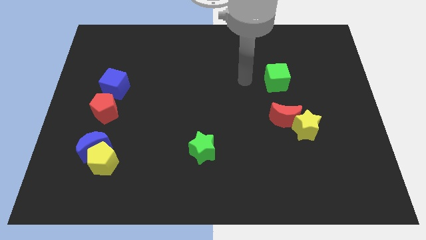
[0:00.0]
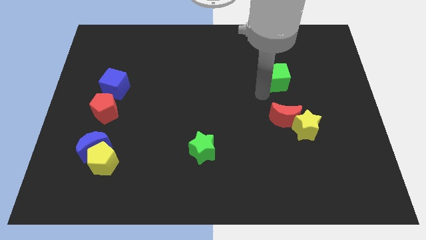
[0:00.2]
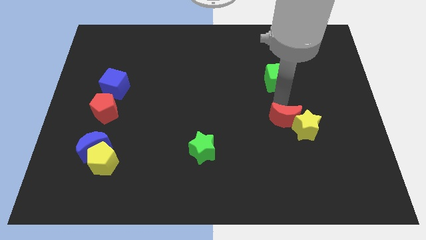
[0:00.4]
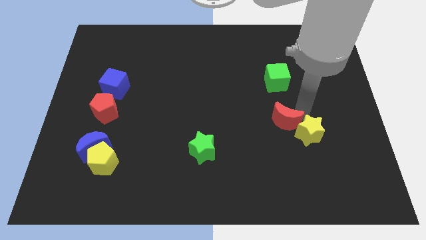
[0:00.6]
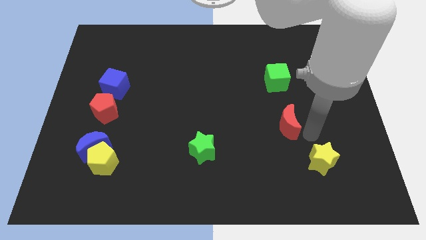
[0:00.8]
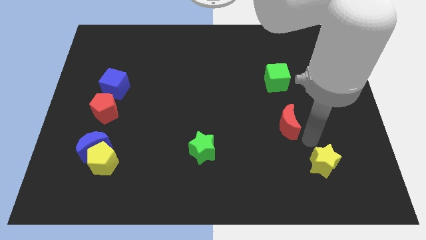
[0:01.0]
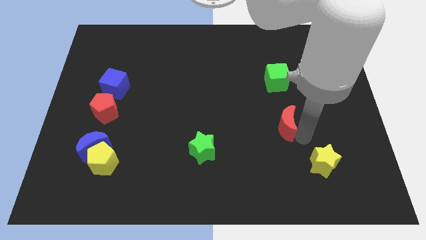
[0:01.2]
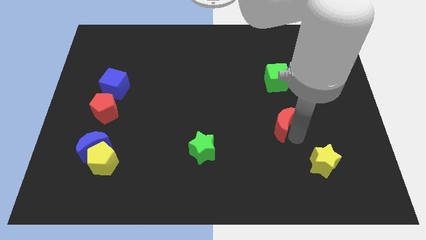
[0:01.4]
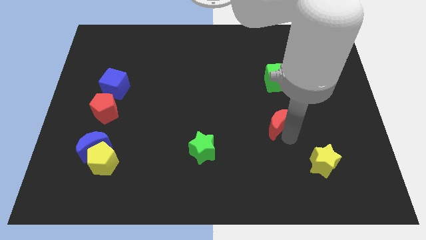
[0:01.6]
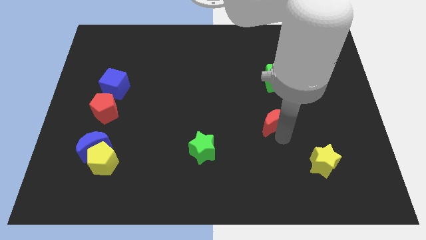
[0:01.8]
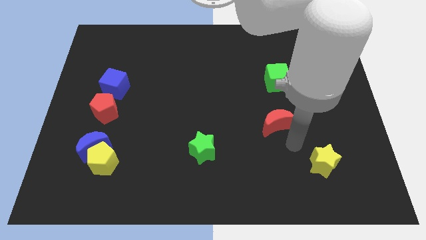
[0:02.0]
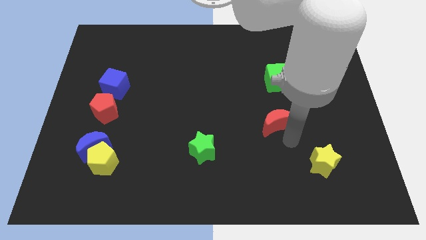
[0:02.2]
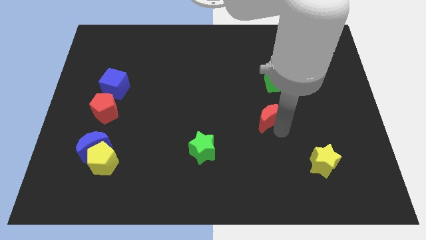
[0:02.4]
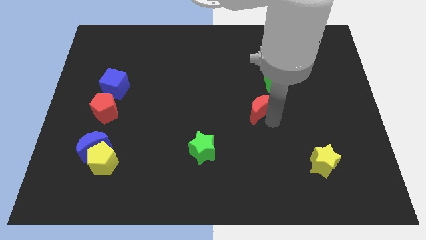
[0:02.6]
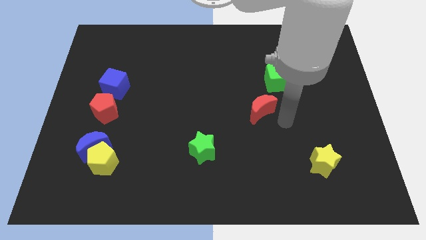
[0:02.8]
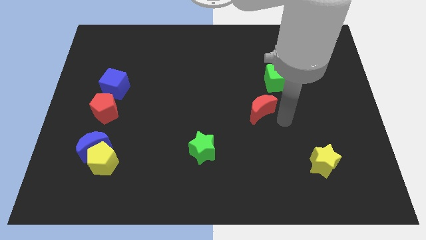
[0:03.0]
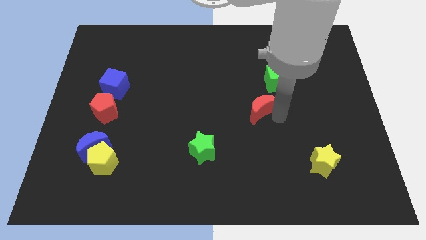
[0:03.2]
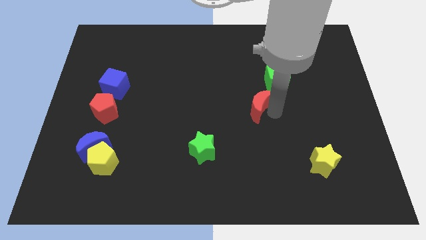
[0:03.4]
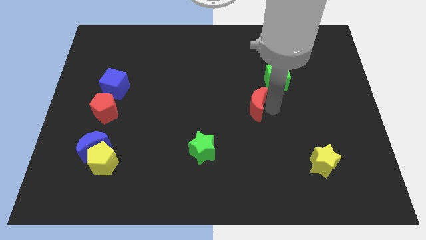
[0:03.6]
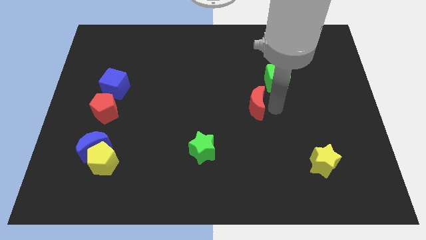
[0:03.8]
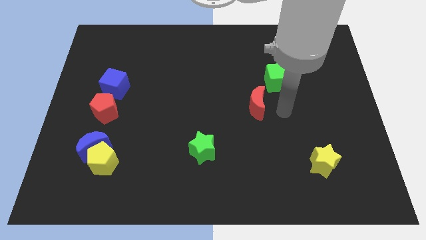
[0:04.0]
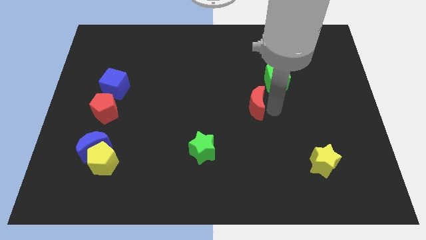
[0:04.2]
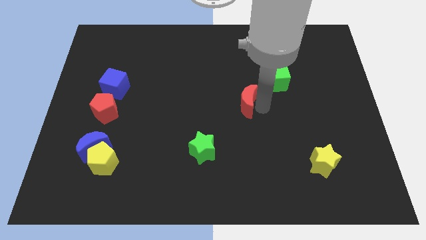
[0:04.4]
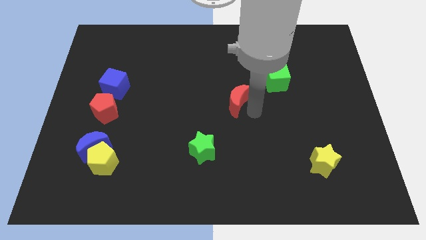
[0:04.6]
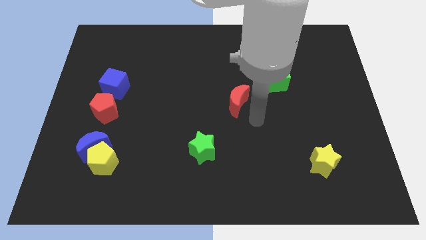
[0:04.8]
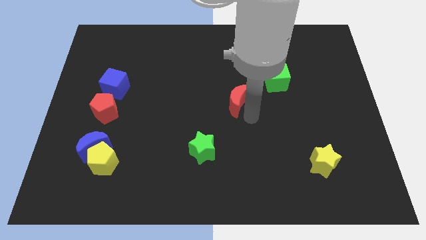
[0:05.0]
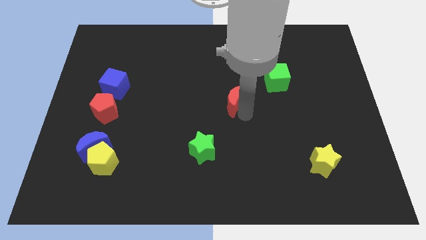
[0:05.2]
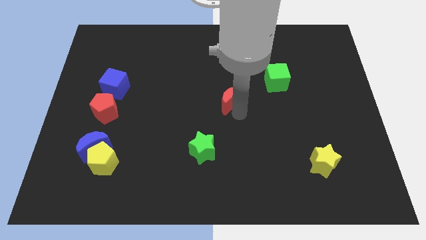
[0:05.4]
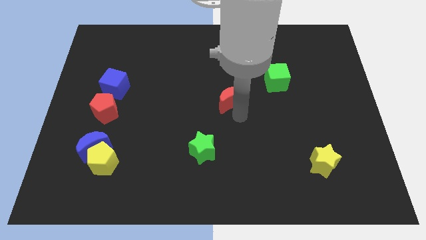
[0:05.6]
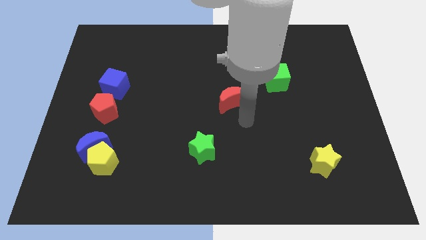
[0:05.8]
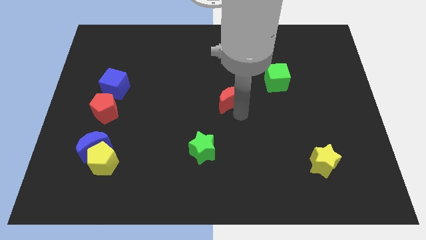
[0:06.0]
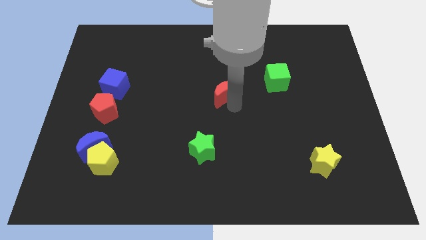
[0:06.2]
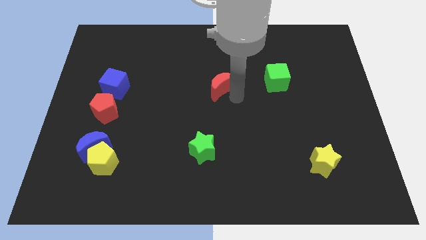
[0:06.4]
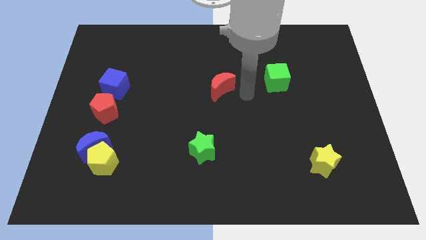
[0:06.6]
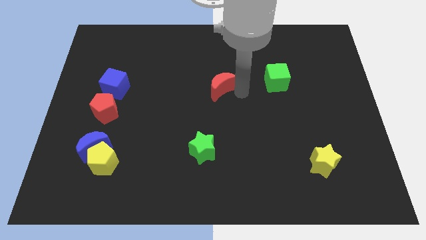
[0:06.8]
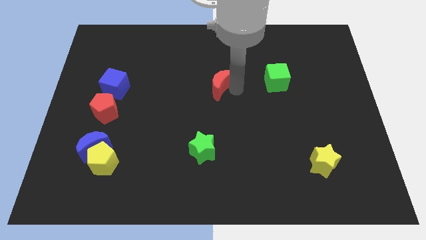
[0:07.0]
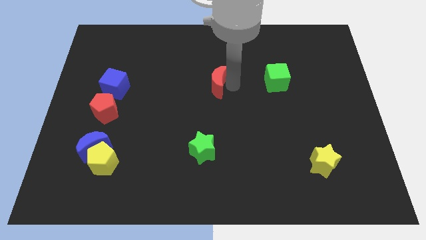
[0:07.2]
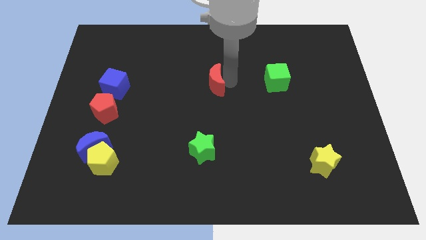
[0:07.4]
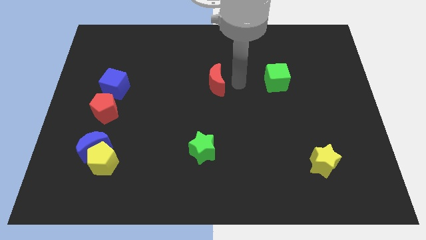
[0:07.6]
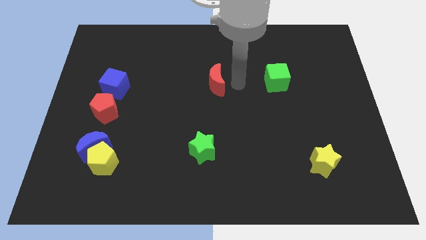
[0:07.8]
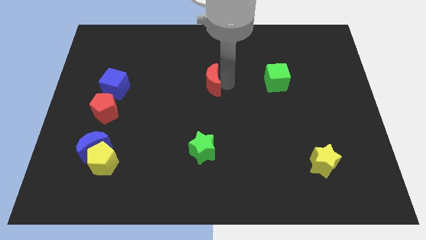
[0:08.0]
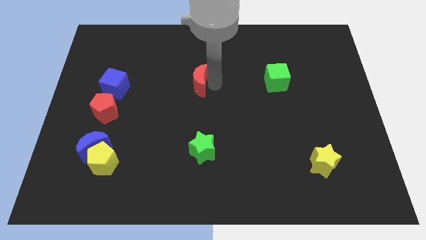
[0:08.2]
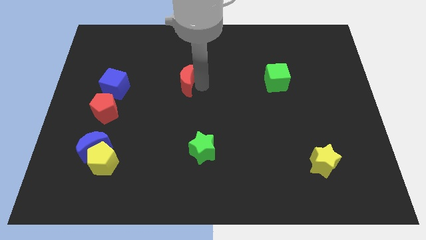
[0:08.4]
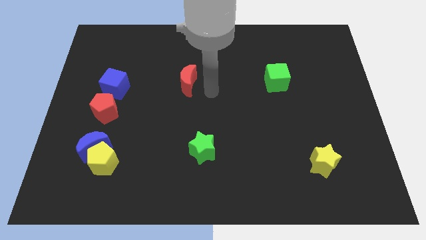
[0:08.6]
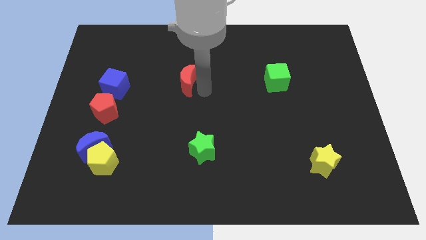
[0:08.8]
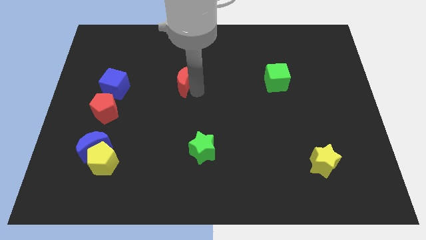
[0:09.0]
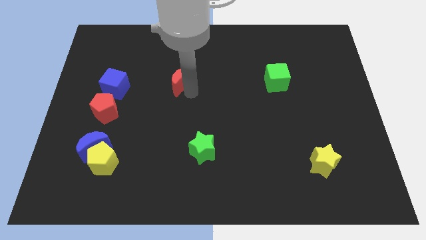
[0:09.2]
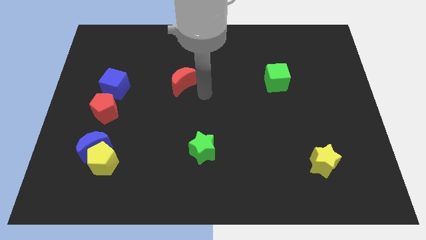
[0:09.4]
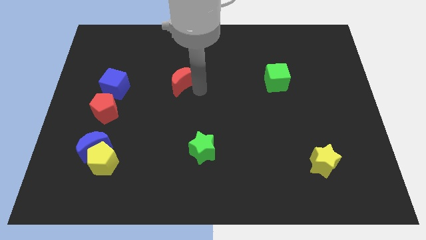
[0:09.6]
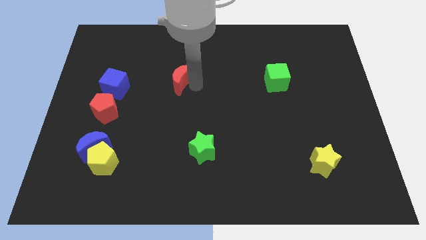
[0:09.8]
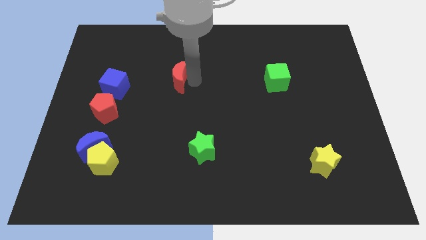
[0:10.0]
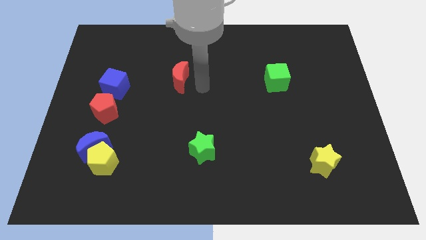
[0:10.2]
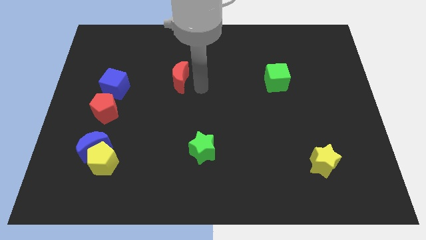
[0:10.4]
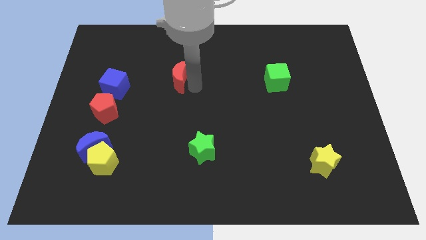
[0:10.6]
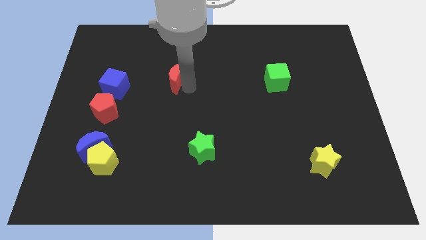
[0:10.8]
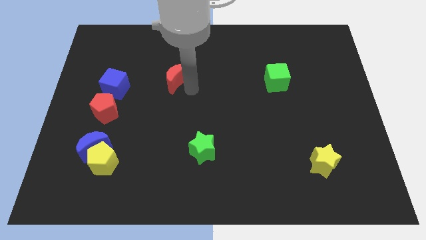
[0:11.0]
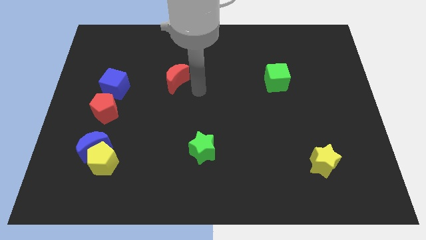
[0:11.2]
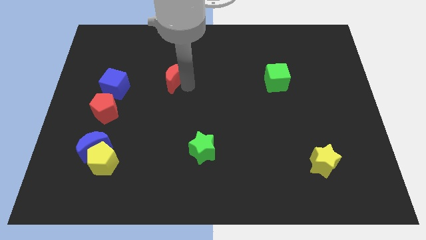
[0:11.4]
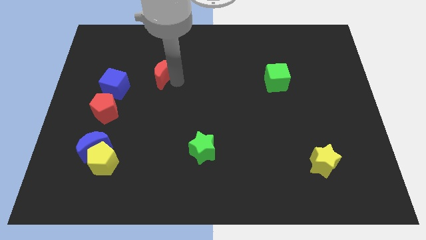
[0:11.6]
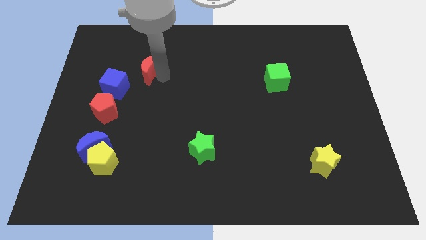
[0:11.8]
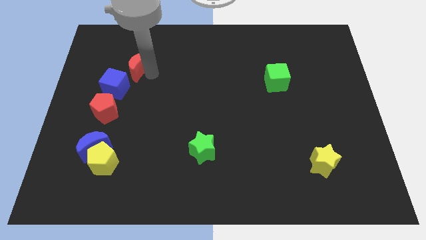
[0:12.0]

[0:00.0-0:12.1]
move the red moon above the blue cube

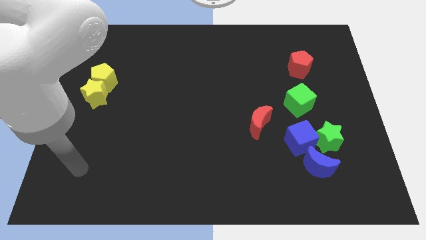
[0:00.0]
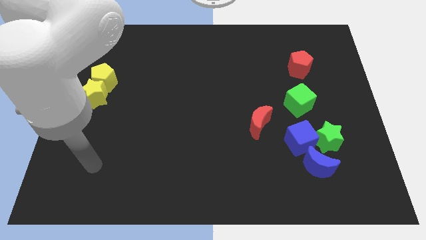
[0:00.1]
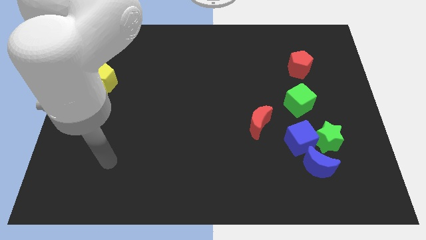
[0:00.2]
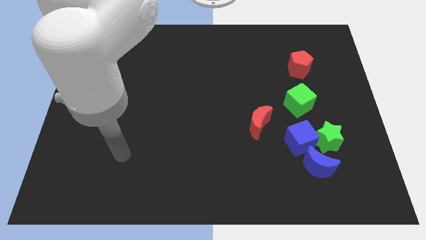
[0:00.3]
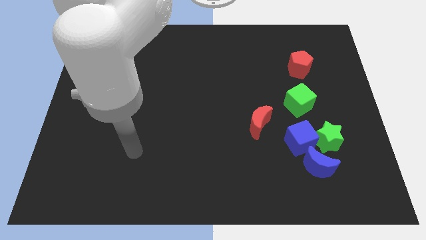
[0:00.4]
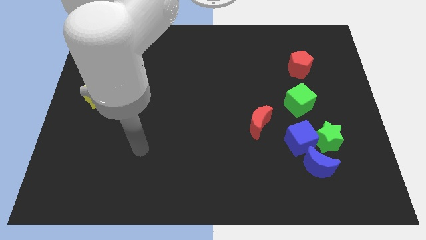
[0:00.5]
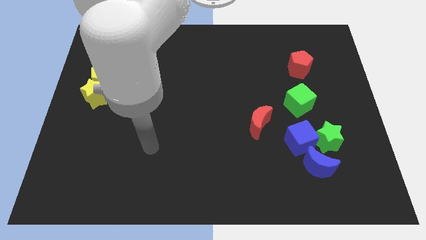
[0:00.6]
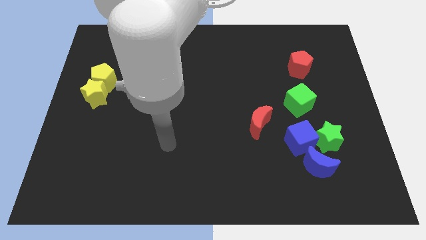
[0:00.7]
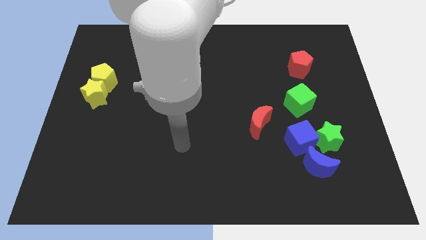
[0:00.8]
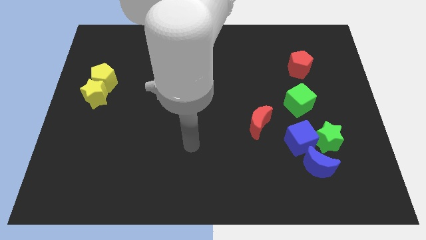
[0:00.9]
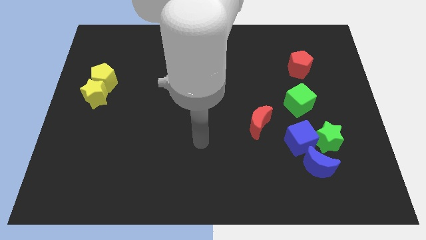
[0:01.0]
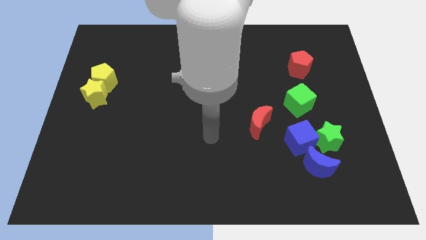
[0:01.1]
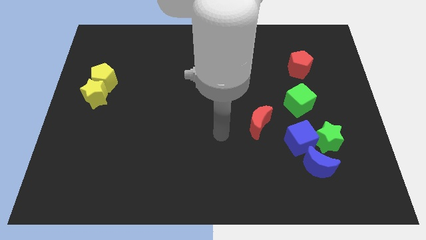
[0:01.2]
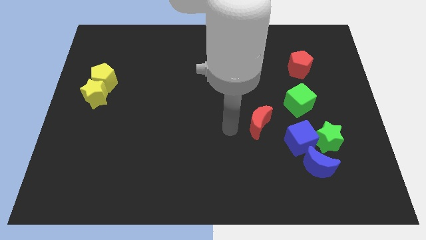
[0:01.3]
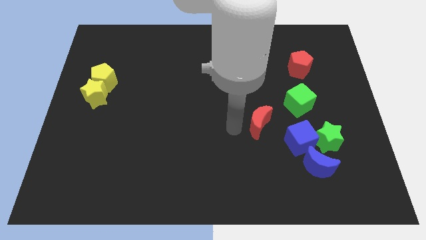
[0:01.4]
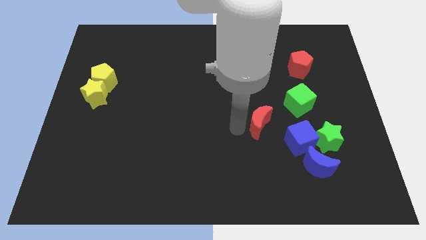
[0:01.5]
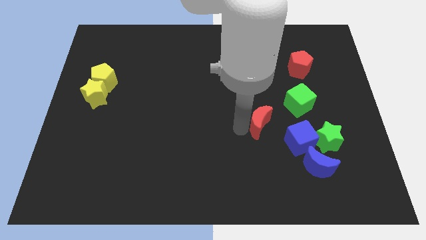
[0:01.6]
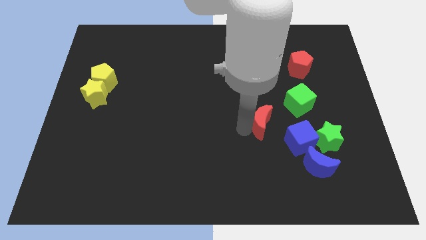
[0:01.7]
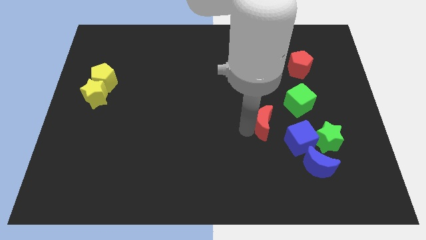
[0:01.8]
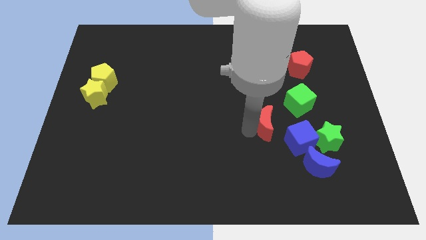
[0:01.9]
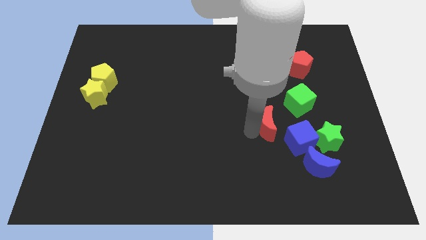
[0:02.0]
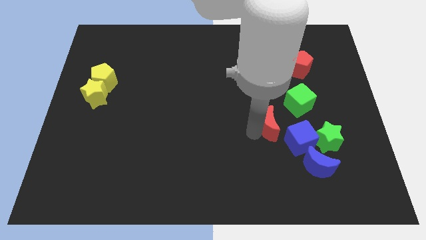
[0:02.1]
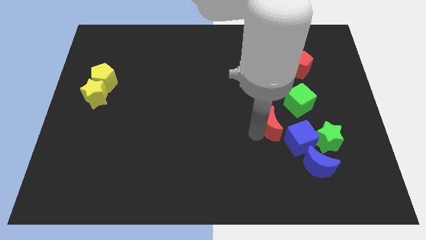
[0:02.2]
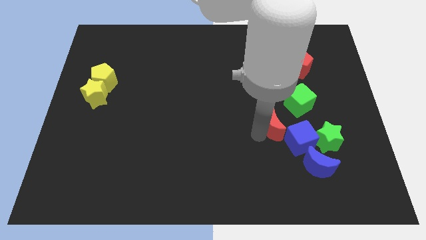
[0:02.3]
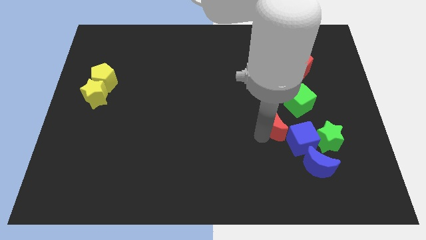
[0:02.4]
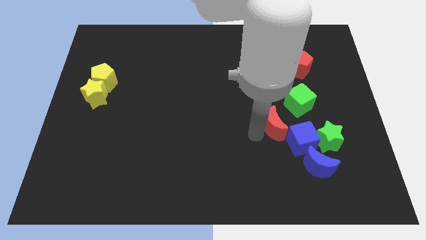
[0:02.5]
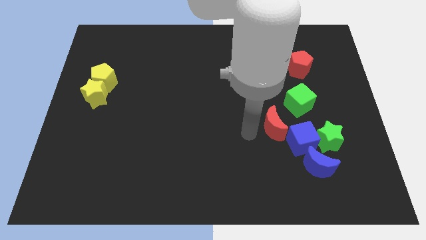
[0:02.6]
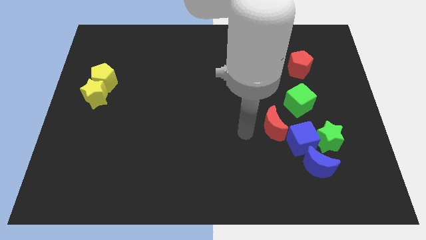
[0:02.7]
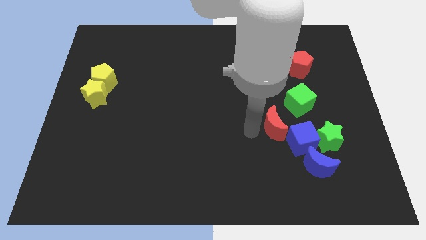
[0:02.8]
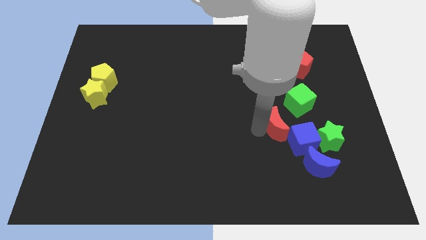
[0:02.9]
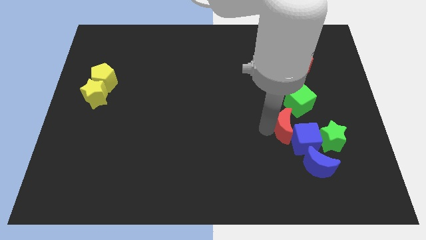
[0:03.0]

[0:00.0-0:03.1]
slide the red moon to the top left of the green star
